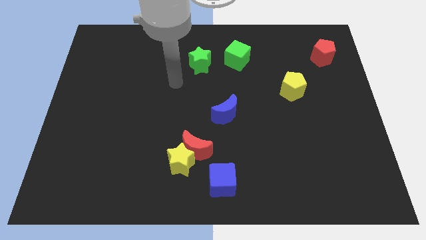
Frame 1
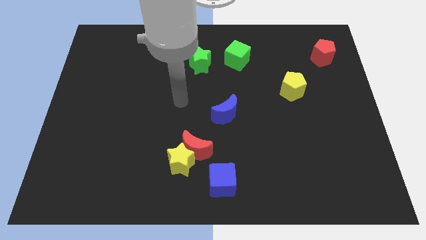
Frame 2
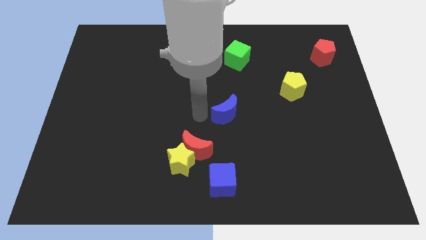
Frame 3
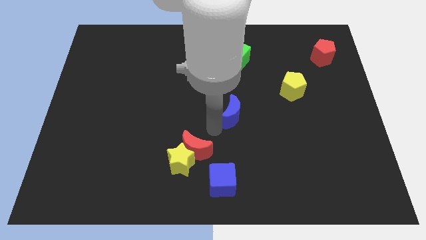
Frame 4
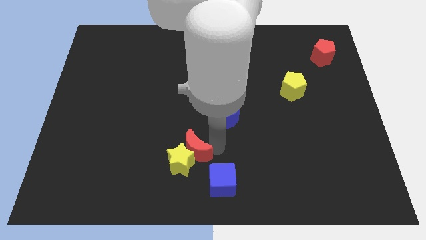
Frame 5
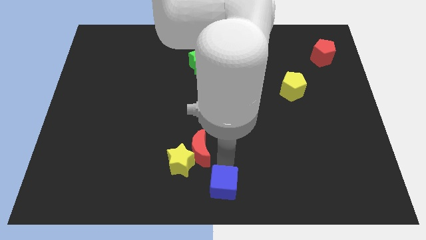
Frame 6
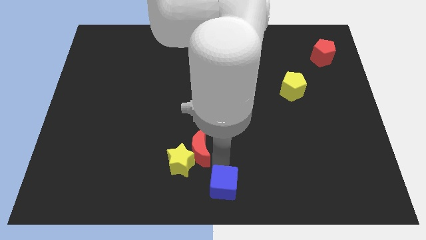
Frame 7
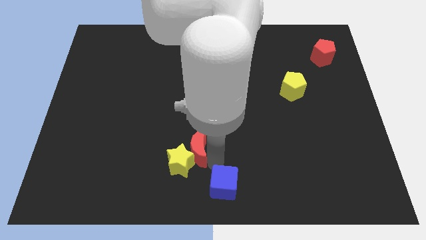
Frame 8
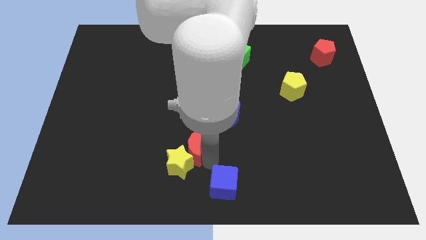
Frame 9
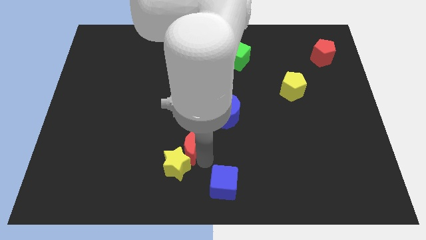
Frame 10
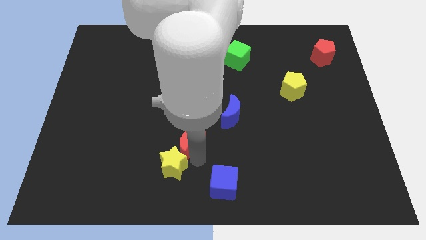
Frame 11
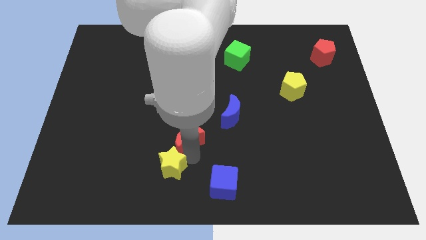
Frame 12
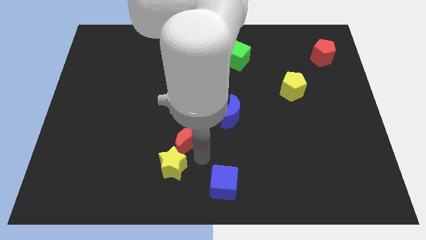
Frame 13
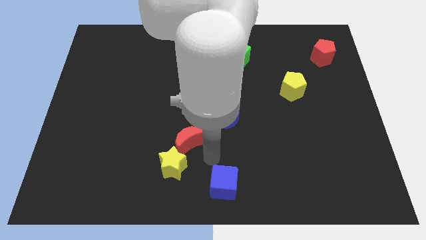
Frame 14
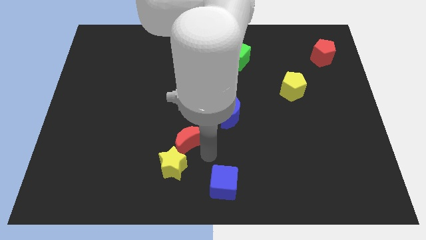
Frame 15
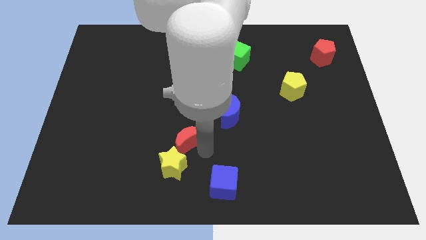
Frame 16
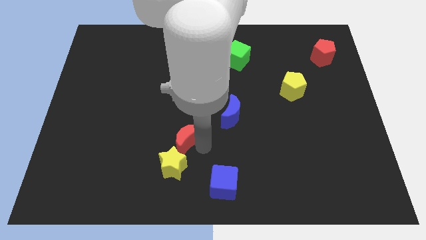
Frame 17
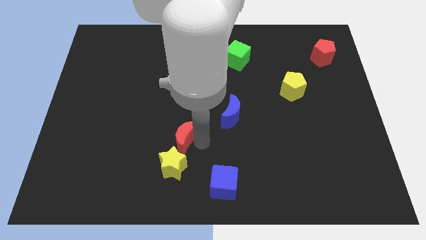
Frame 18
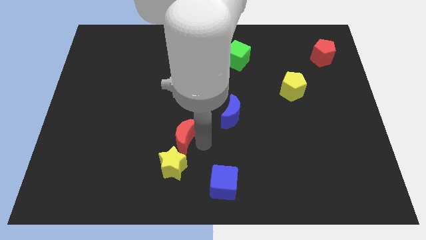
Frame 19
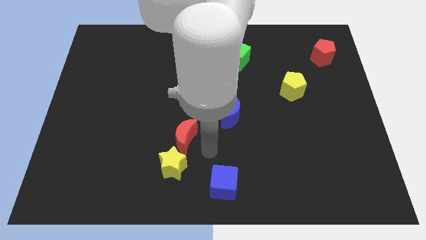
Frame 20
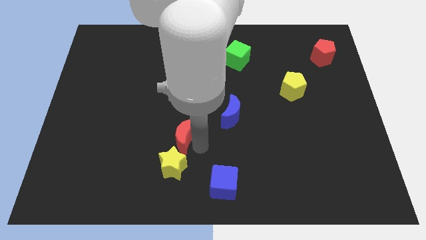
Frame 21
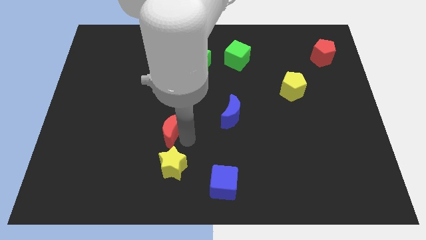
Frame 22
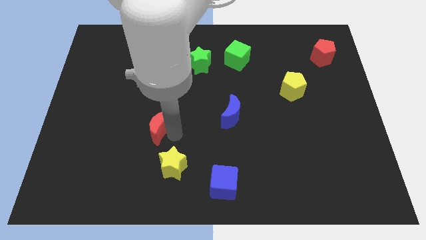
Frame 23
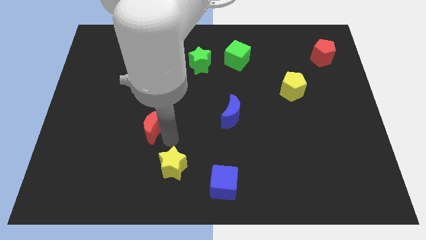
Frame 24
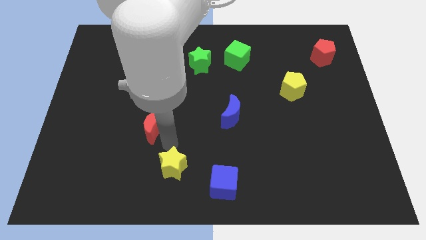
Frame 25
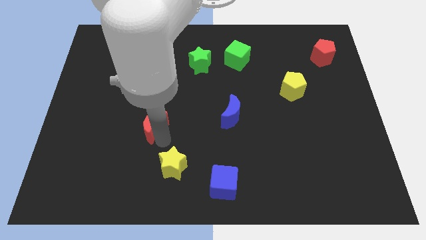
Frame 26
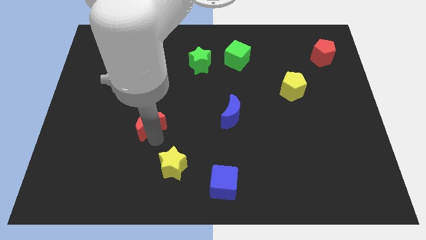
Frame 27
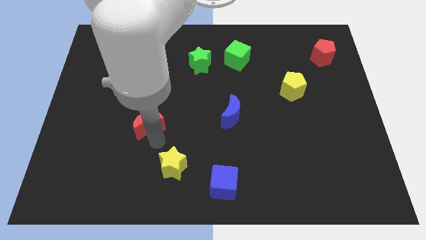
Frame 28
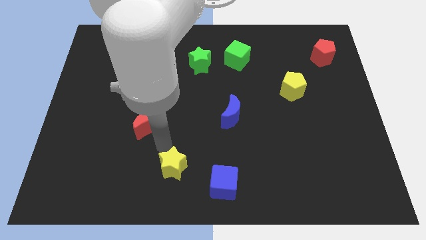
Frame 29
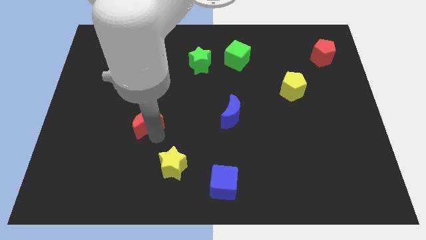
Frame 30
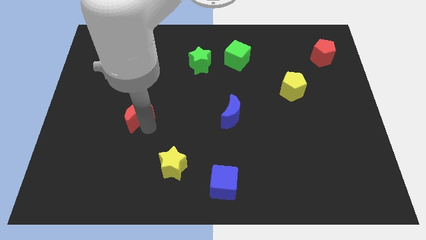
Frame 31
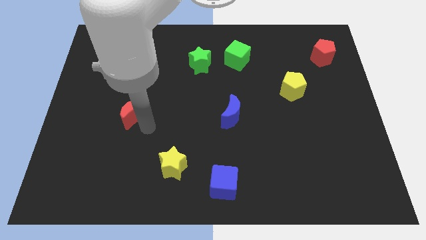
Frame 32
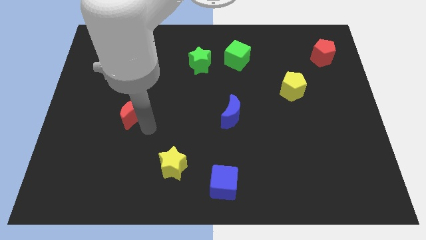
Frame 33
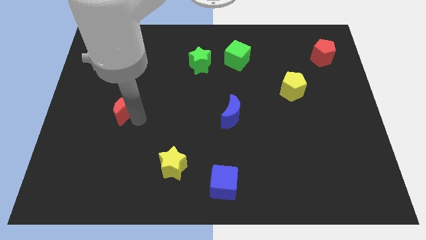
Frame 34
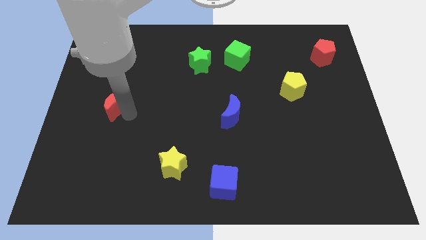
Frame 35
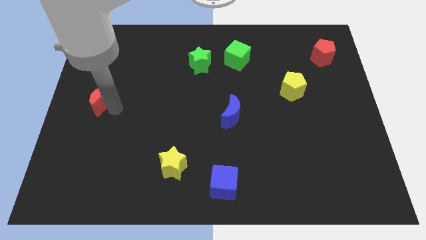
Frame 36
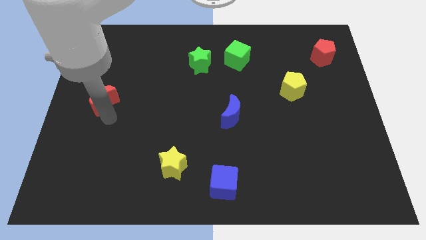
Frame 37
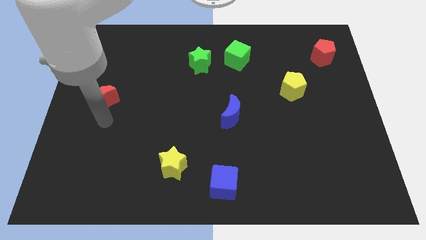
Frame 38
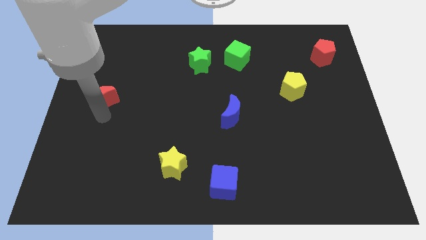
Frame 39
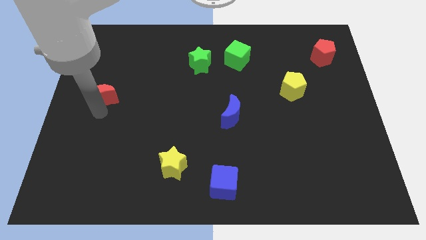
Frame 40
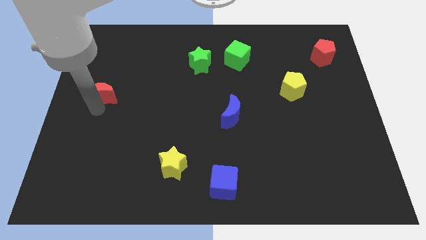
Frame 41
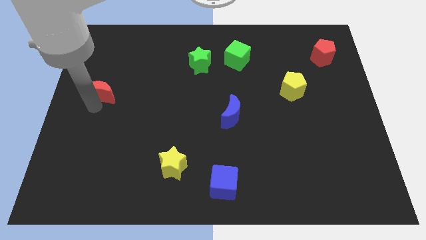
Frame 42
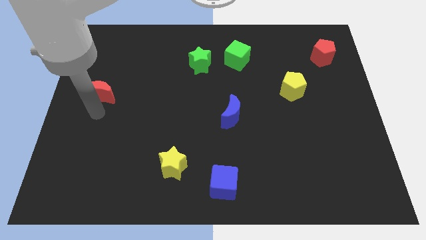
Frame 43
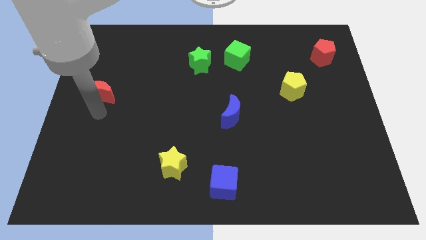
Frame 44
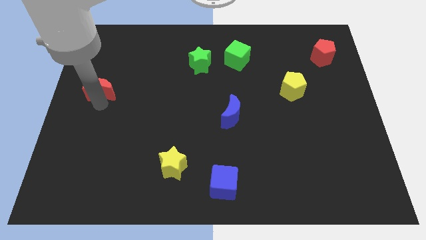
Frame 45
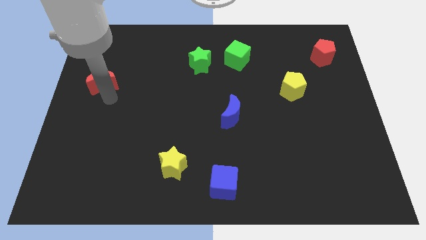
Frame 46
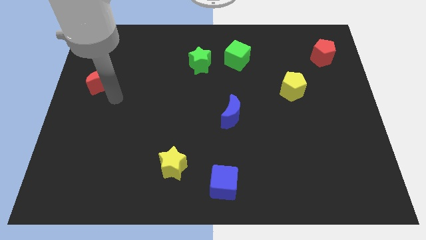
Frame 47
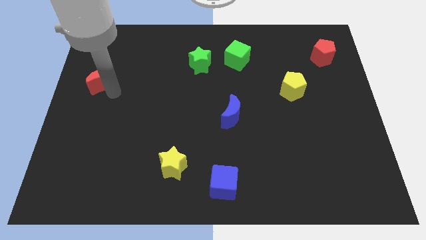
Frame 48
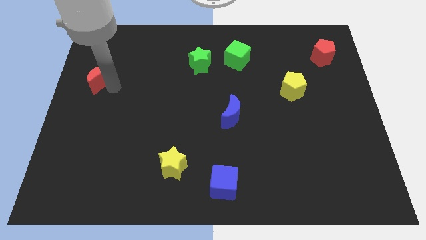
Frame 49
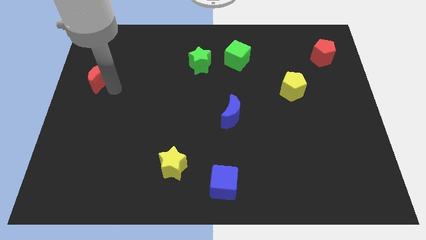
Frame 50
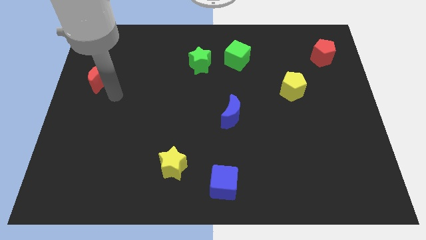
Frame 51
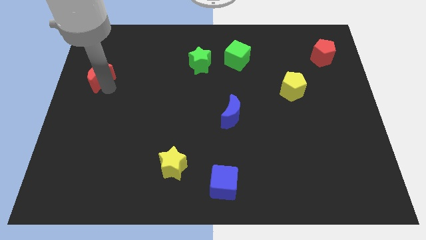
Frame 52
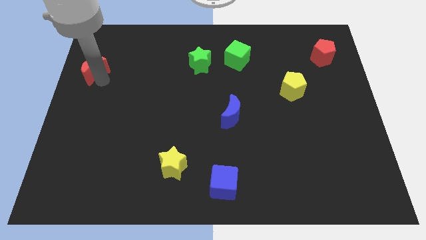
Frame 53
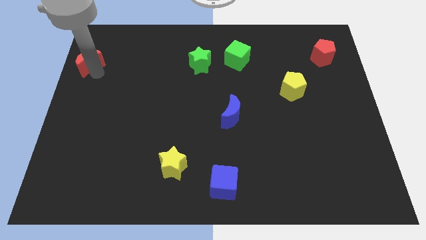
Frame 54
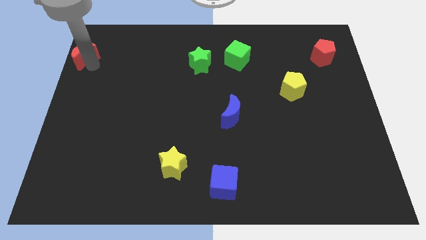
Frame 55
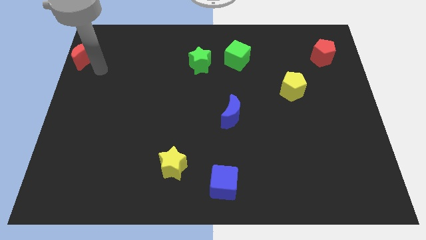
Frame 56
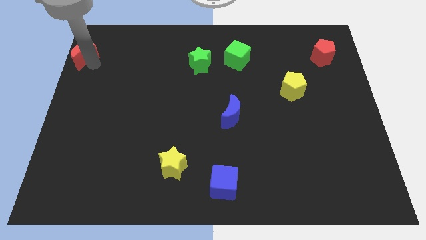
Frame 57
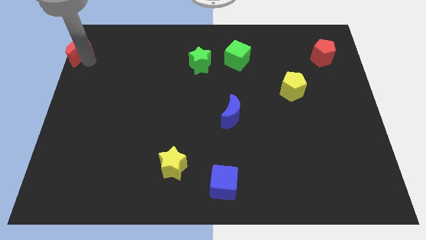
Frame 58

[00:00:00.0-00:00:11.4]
put the red moon to the top left
